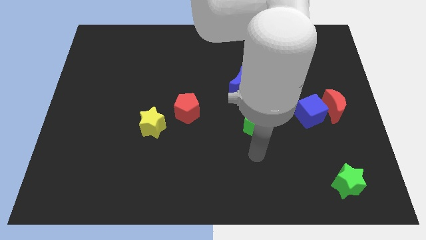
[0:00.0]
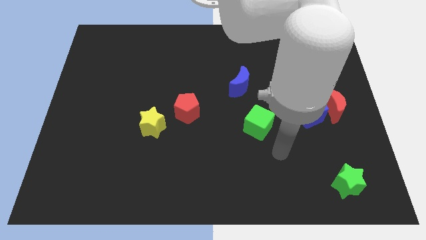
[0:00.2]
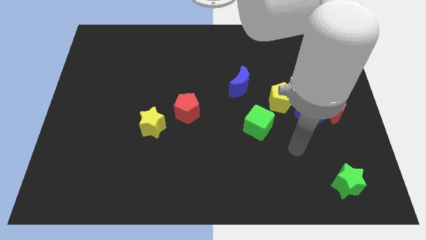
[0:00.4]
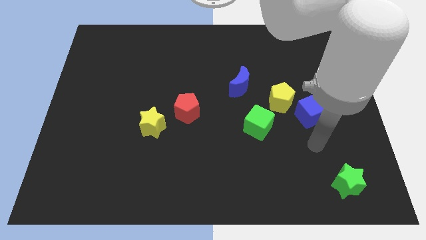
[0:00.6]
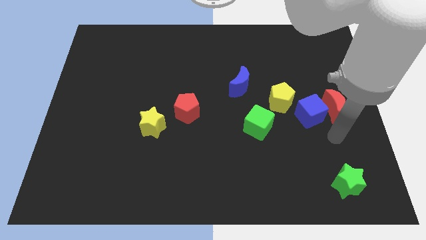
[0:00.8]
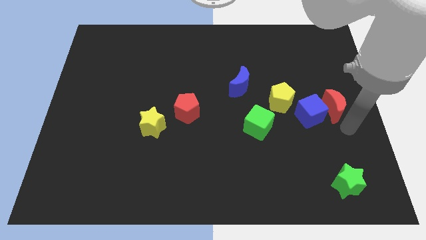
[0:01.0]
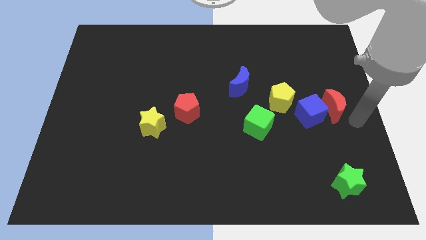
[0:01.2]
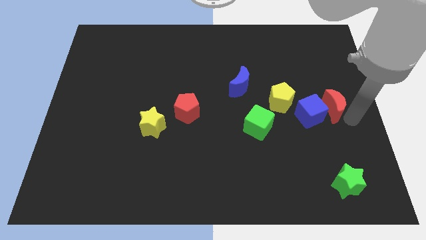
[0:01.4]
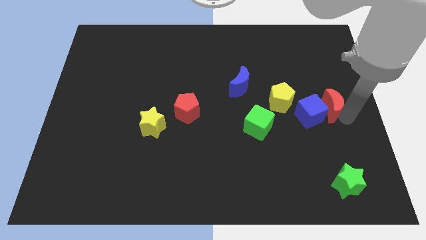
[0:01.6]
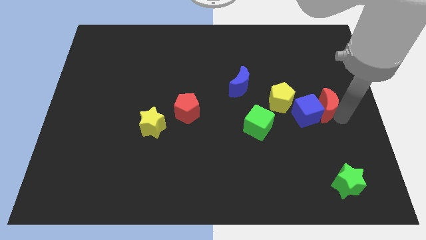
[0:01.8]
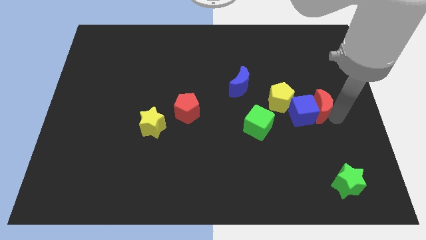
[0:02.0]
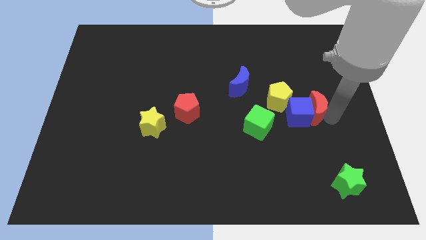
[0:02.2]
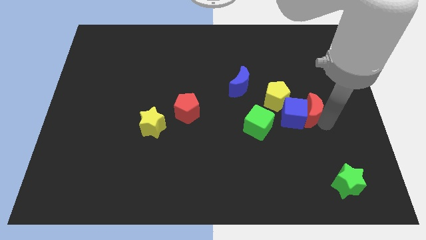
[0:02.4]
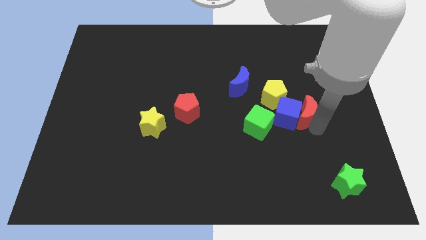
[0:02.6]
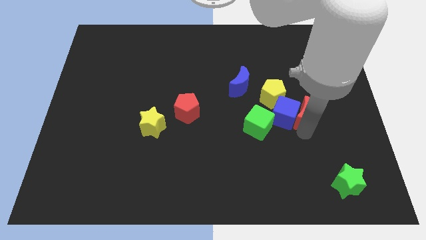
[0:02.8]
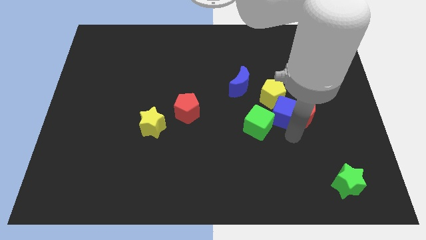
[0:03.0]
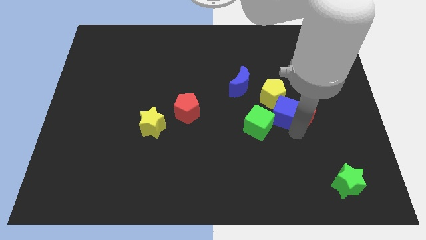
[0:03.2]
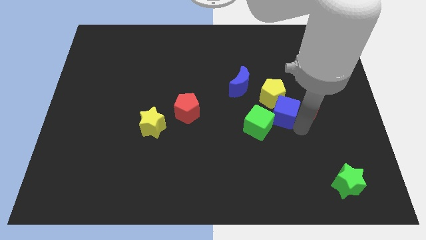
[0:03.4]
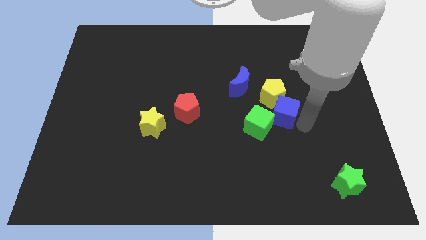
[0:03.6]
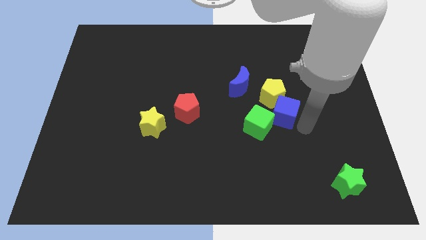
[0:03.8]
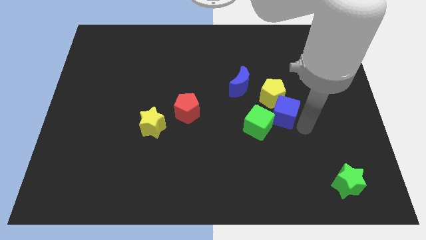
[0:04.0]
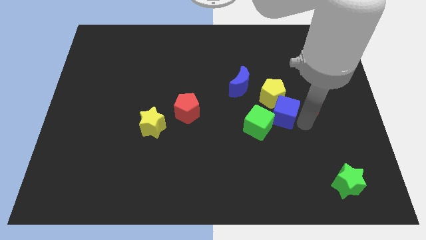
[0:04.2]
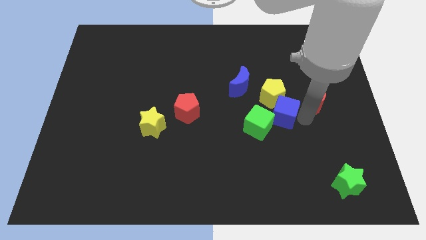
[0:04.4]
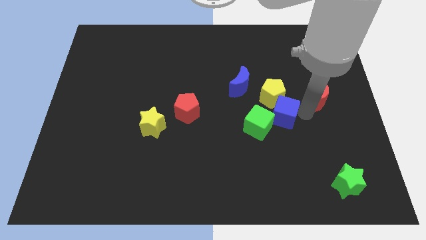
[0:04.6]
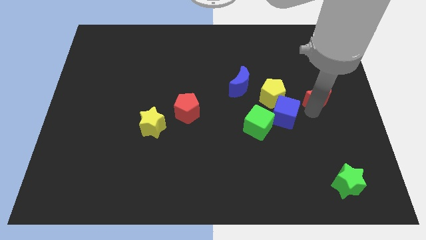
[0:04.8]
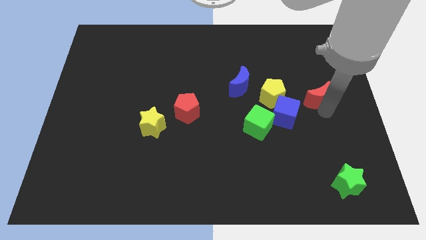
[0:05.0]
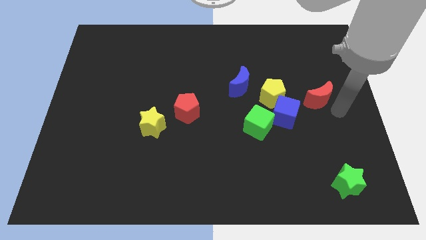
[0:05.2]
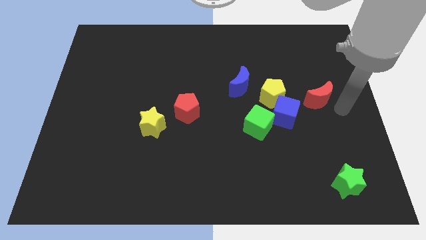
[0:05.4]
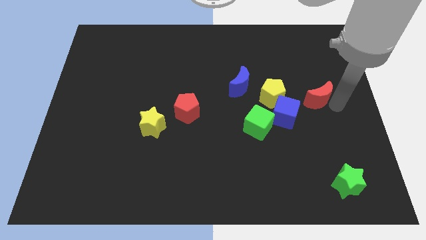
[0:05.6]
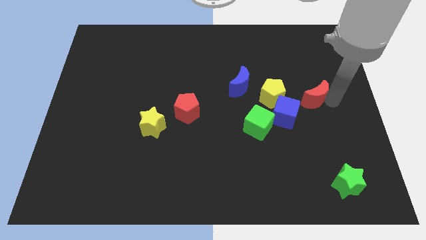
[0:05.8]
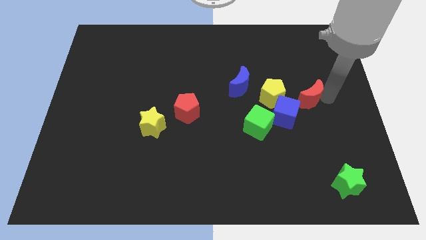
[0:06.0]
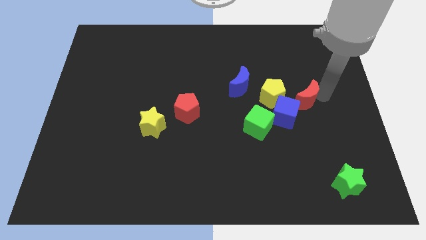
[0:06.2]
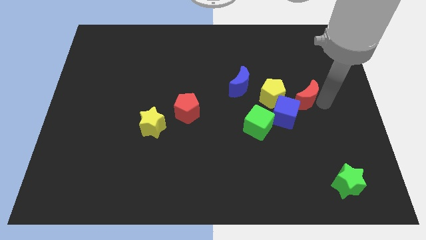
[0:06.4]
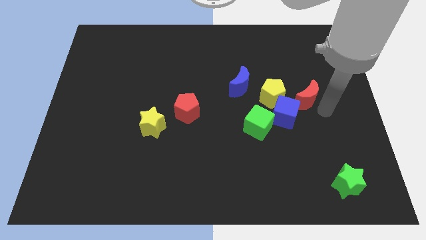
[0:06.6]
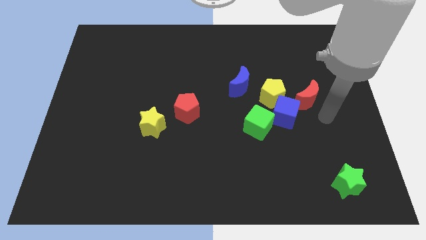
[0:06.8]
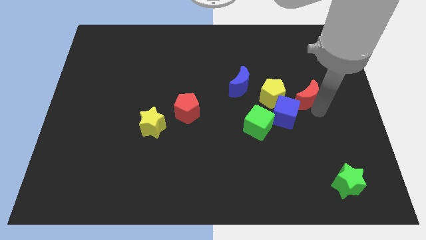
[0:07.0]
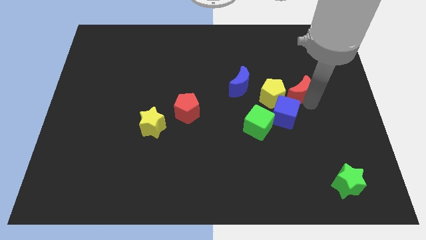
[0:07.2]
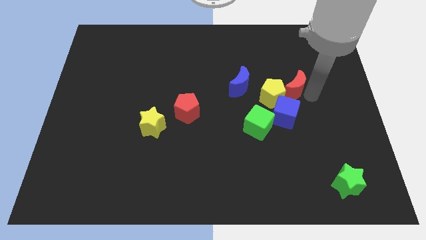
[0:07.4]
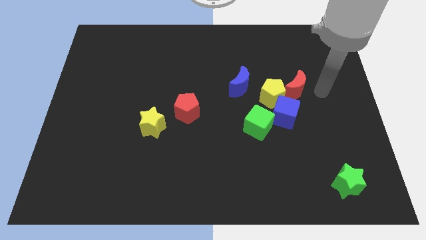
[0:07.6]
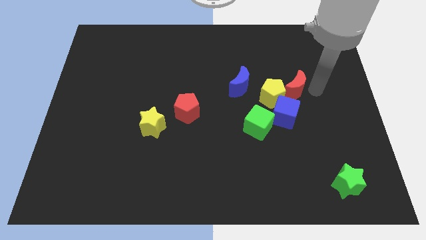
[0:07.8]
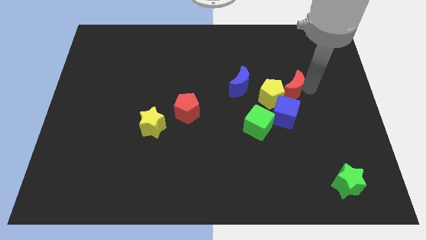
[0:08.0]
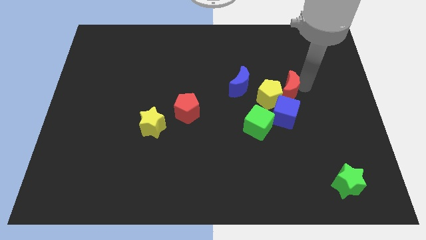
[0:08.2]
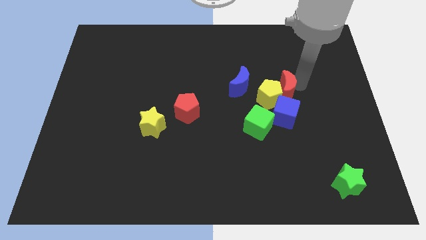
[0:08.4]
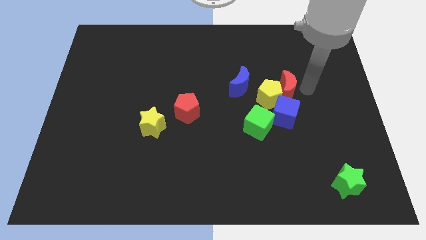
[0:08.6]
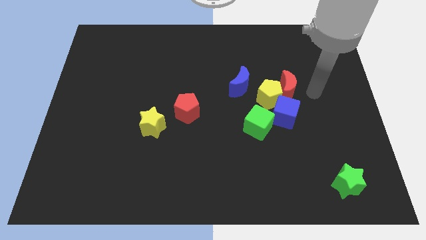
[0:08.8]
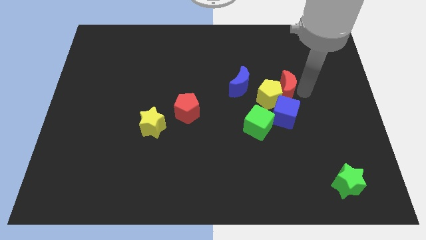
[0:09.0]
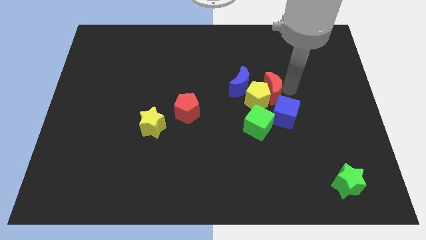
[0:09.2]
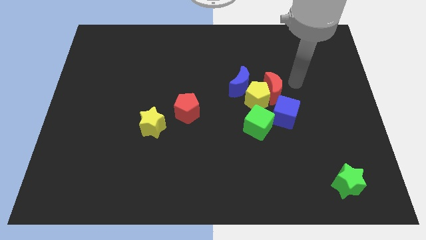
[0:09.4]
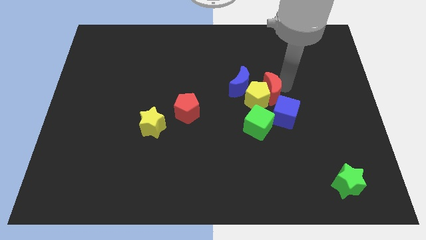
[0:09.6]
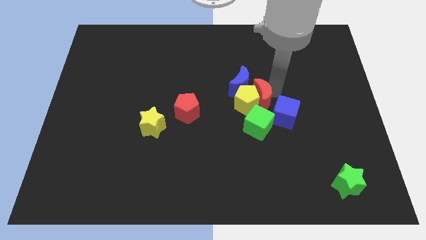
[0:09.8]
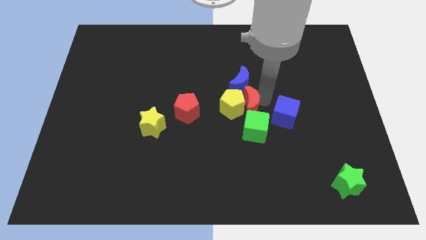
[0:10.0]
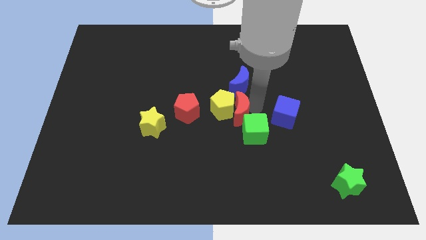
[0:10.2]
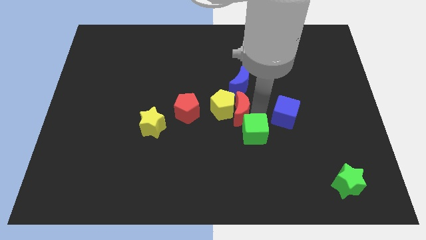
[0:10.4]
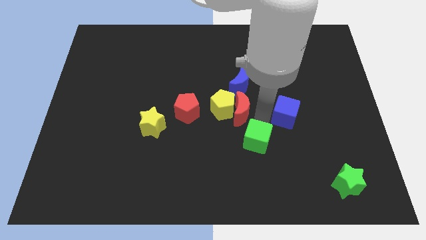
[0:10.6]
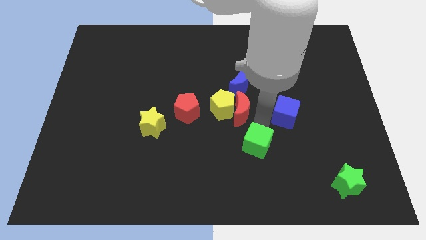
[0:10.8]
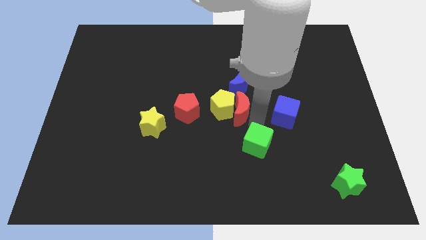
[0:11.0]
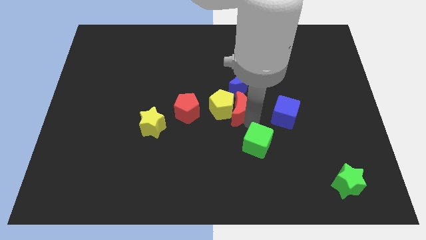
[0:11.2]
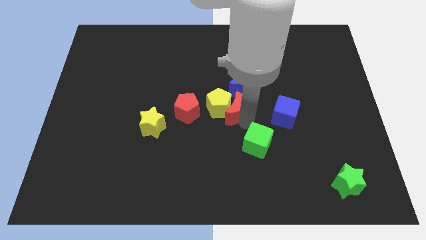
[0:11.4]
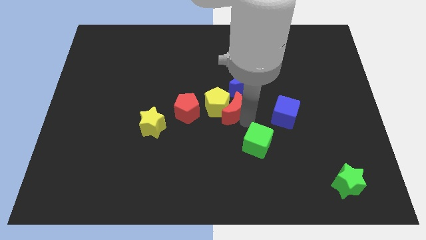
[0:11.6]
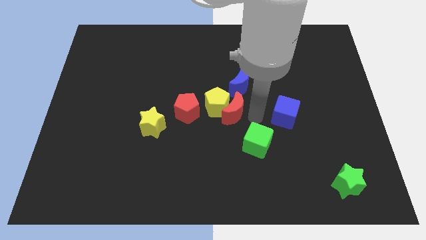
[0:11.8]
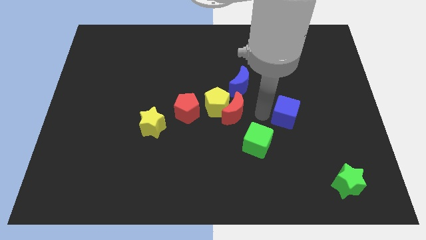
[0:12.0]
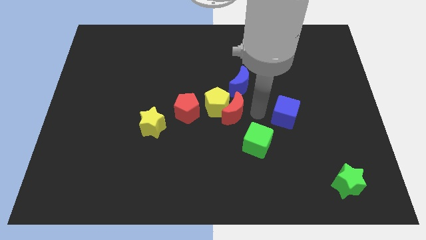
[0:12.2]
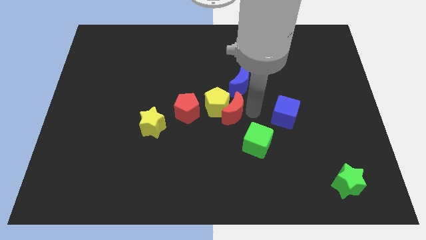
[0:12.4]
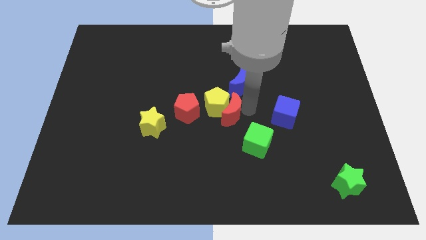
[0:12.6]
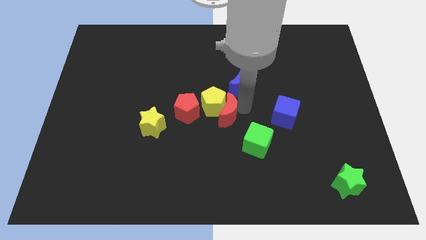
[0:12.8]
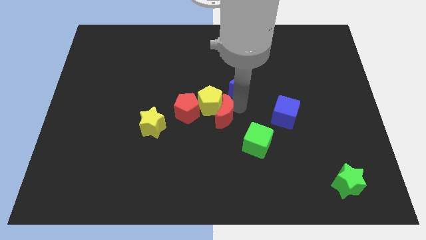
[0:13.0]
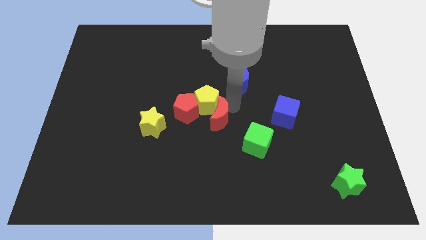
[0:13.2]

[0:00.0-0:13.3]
push the red moon just right of the yellow star
